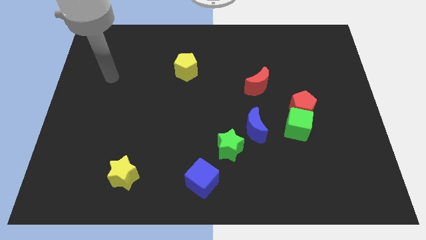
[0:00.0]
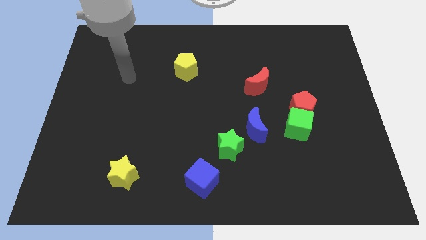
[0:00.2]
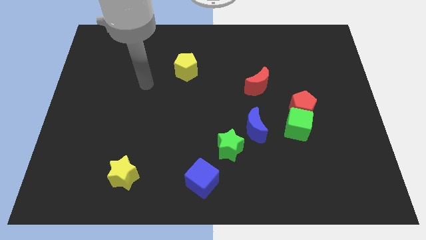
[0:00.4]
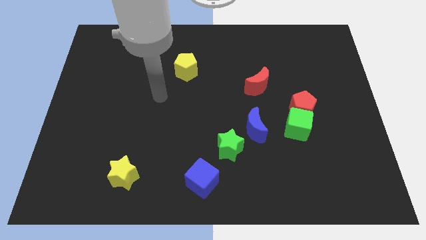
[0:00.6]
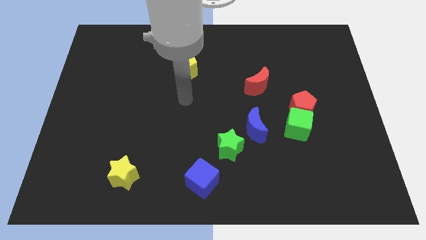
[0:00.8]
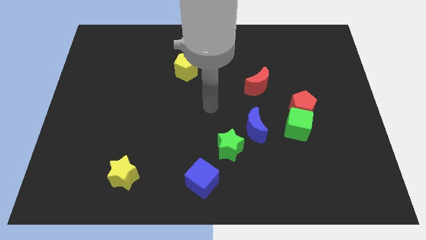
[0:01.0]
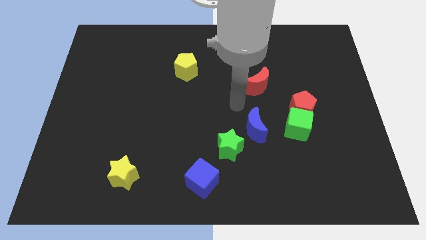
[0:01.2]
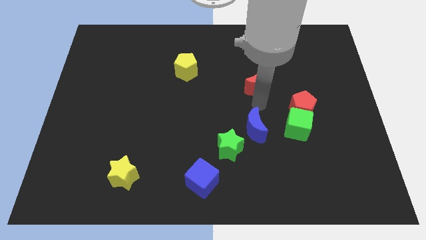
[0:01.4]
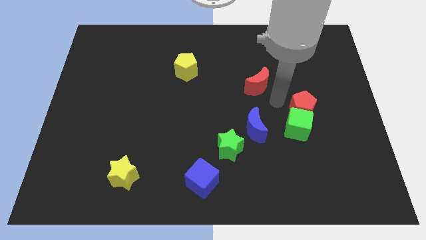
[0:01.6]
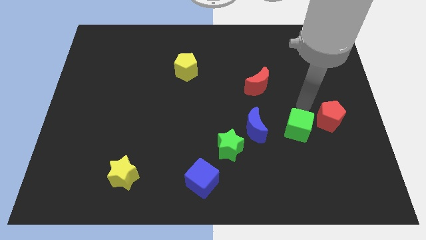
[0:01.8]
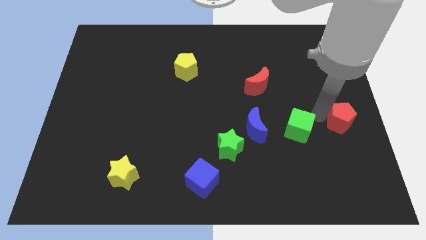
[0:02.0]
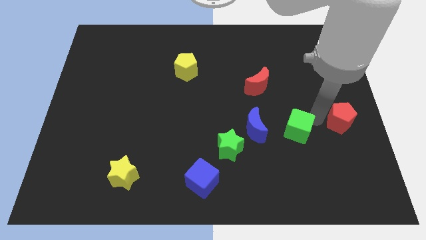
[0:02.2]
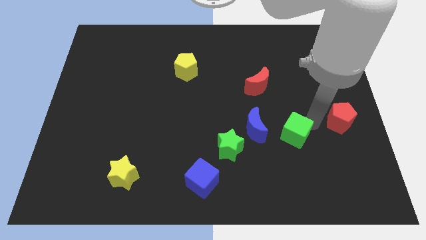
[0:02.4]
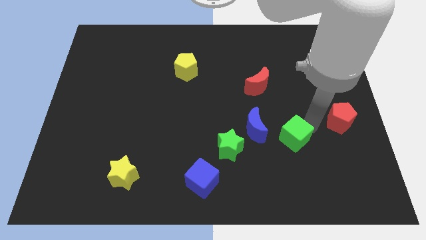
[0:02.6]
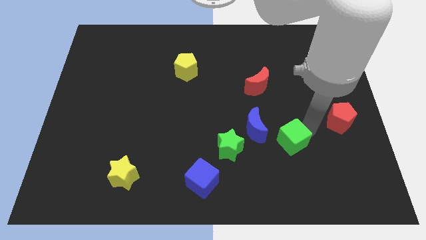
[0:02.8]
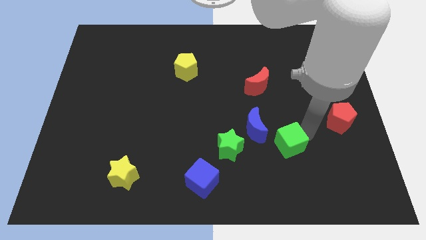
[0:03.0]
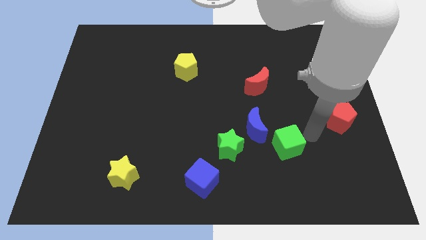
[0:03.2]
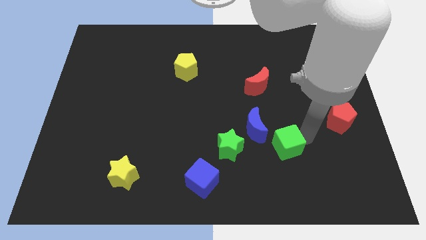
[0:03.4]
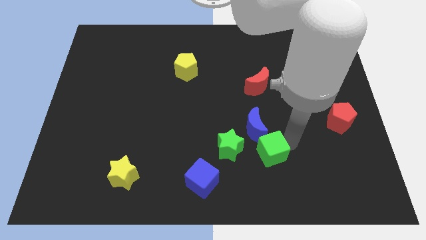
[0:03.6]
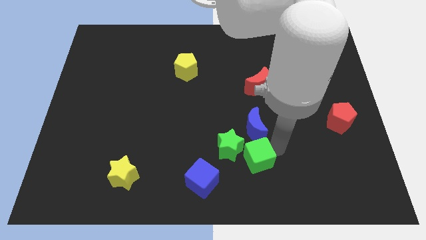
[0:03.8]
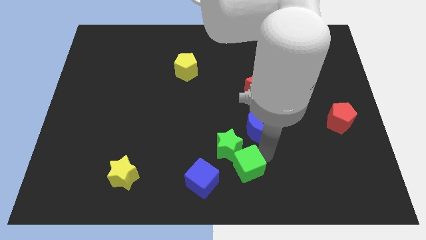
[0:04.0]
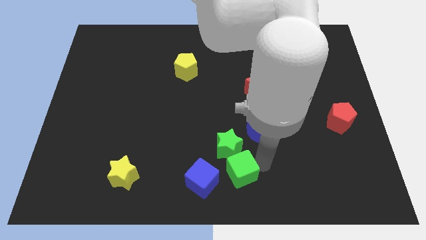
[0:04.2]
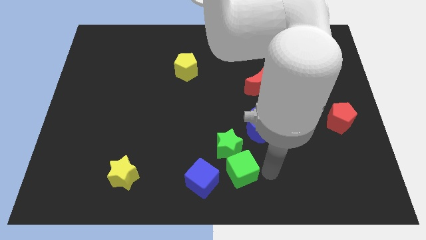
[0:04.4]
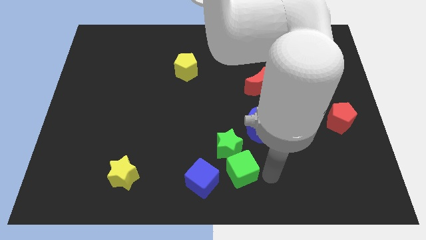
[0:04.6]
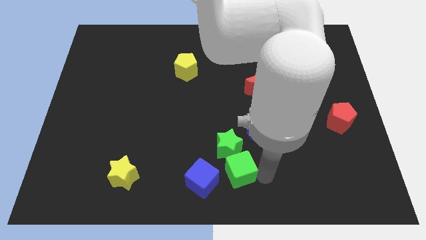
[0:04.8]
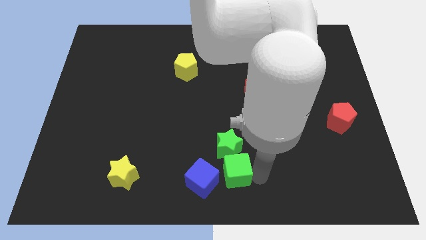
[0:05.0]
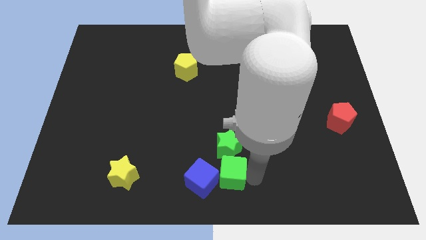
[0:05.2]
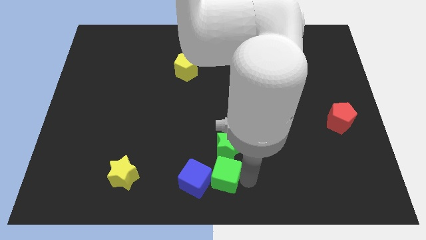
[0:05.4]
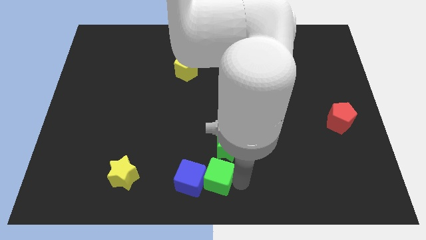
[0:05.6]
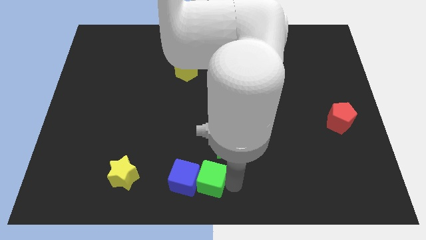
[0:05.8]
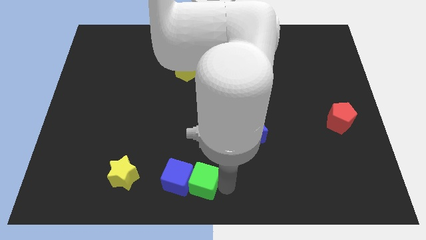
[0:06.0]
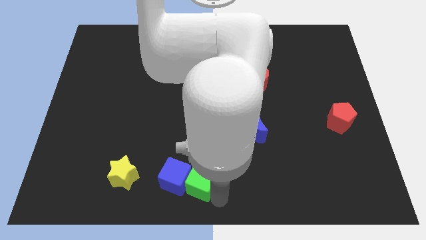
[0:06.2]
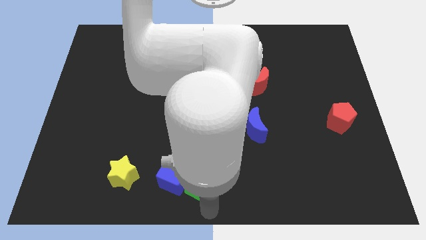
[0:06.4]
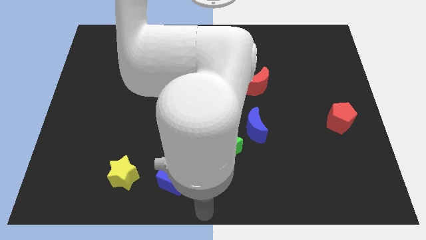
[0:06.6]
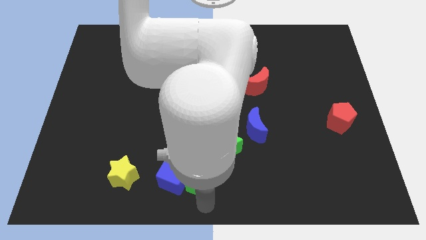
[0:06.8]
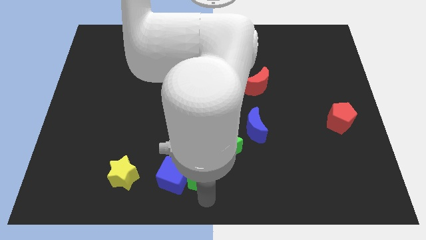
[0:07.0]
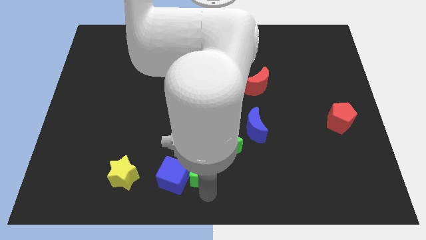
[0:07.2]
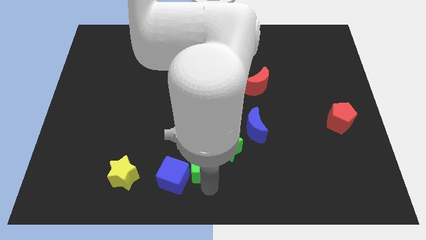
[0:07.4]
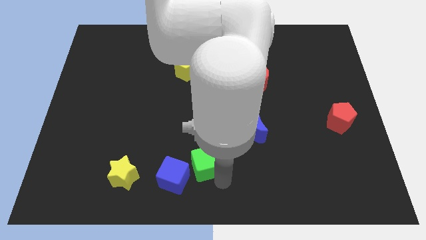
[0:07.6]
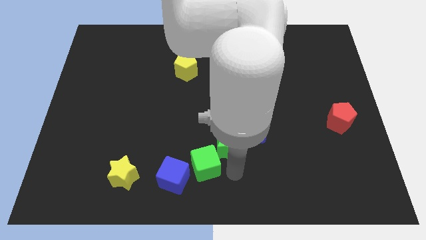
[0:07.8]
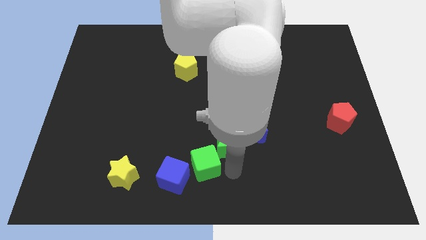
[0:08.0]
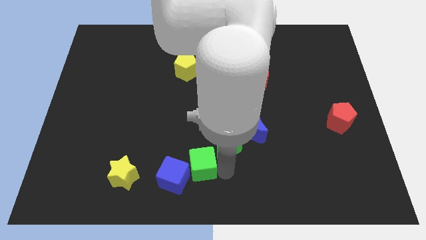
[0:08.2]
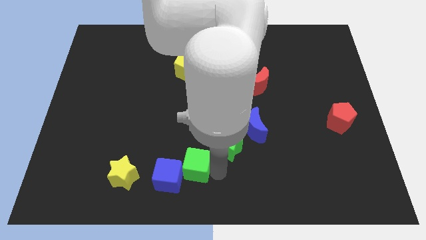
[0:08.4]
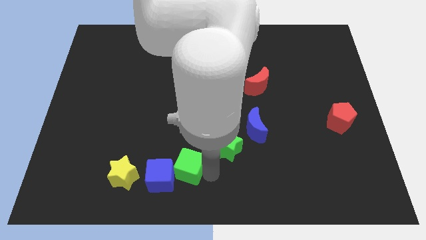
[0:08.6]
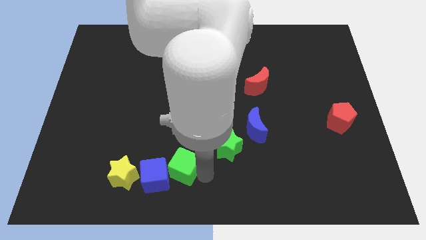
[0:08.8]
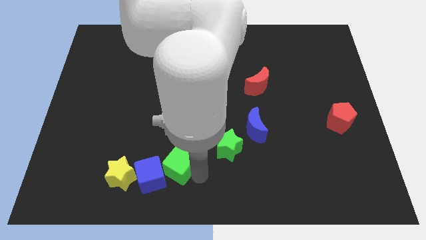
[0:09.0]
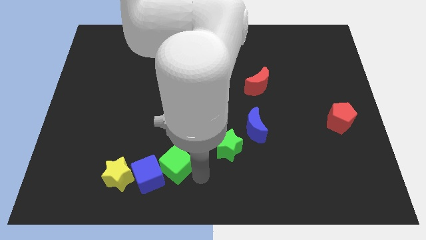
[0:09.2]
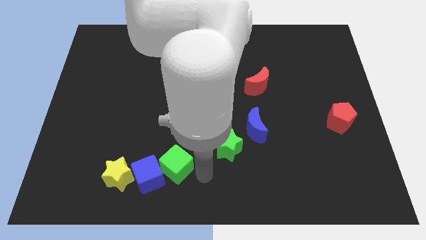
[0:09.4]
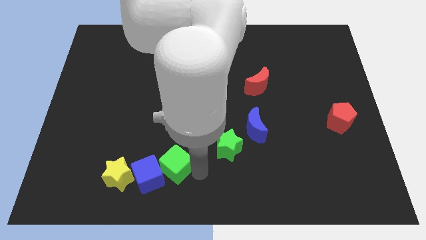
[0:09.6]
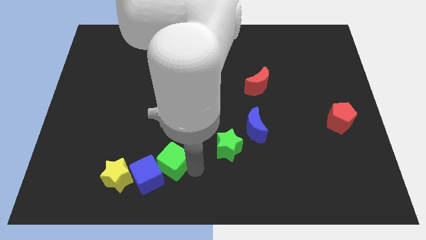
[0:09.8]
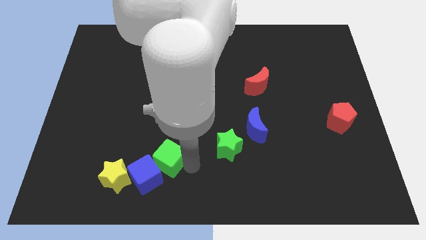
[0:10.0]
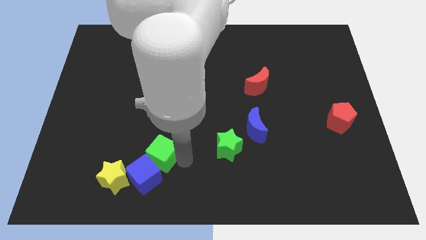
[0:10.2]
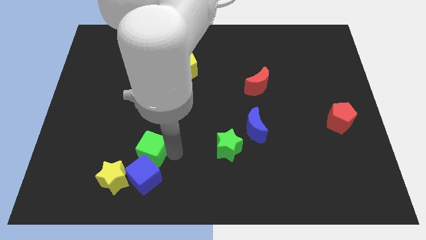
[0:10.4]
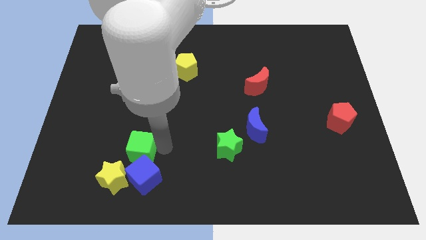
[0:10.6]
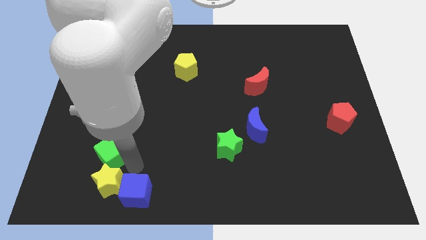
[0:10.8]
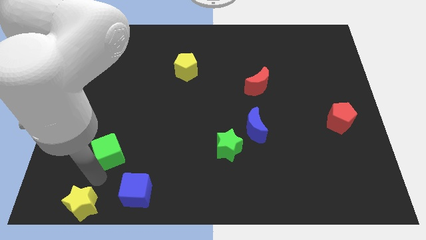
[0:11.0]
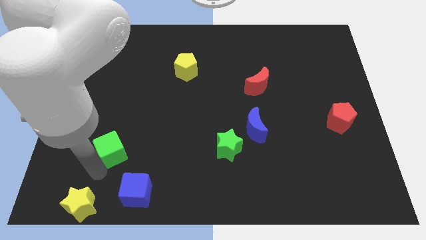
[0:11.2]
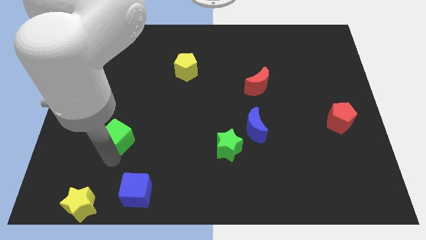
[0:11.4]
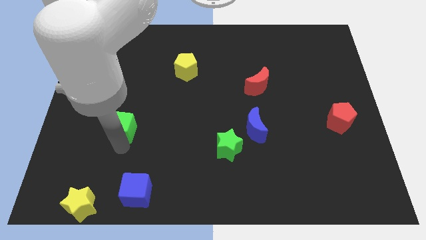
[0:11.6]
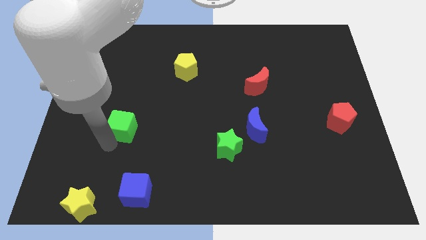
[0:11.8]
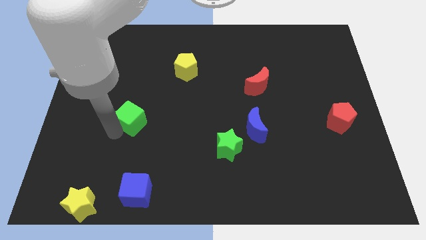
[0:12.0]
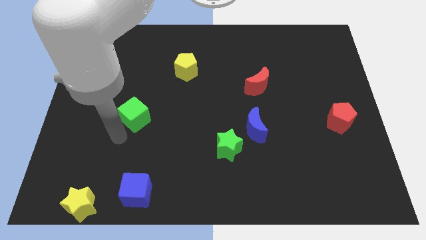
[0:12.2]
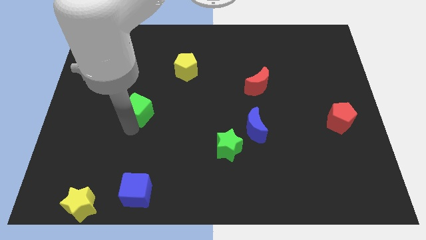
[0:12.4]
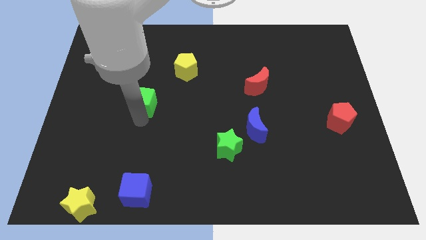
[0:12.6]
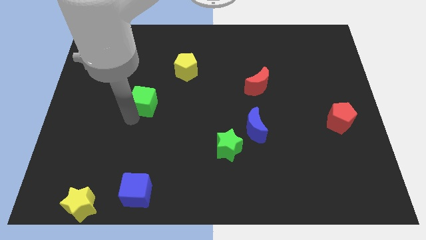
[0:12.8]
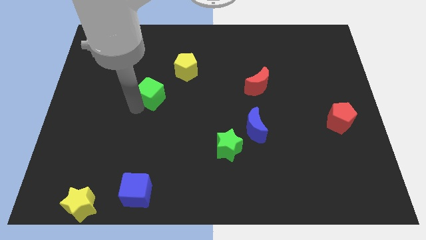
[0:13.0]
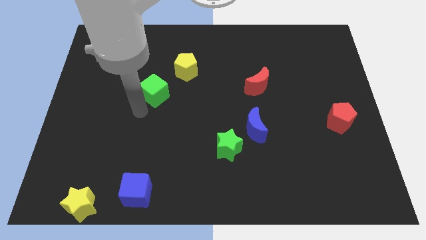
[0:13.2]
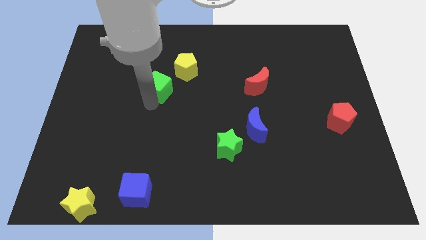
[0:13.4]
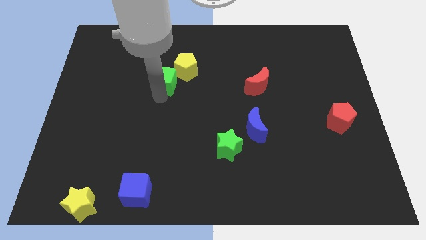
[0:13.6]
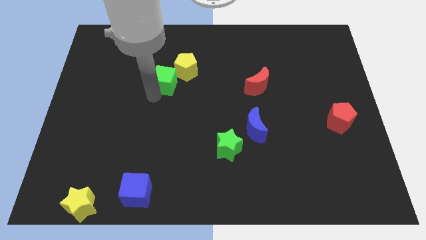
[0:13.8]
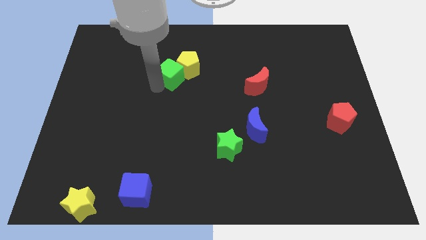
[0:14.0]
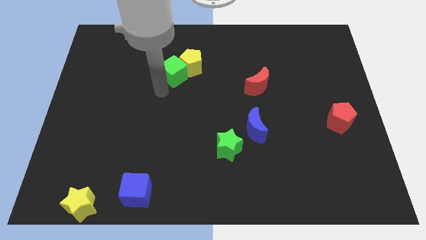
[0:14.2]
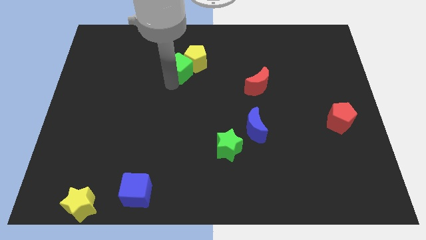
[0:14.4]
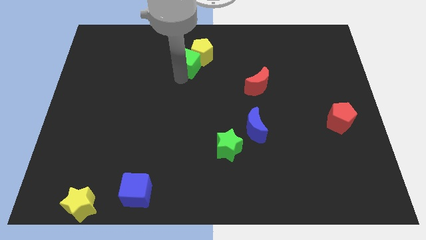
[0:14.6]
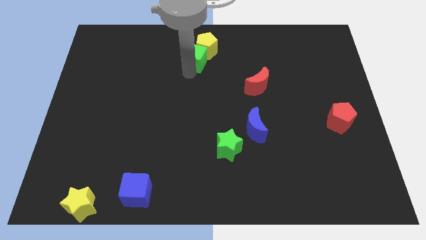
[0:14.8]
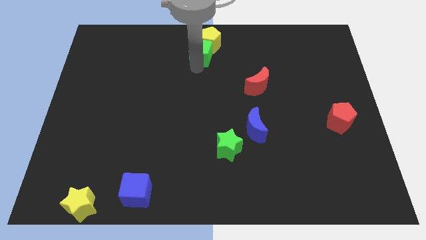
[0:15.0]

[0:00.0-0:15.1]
push the green cube to the top
